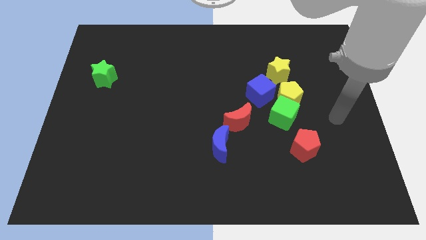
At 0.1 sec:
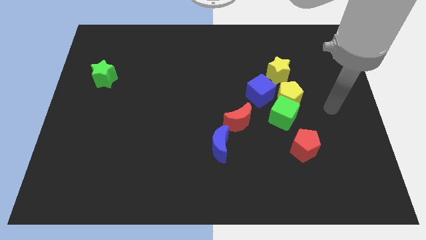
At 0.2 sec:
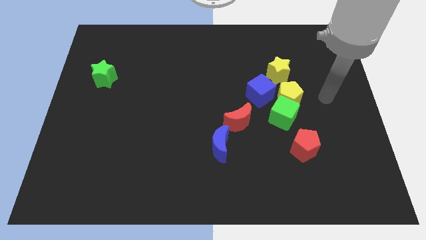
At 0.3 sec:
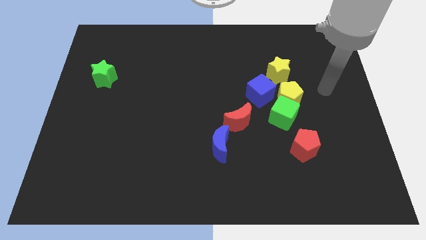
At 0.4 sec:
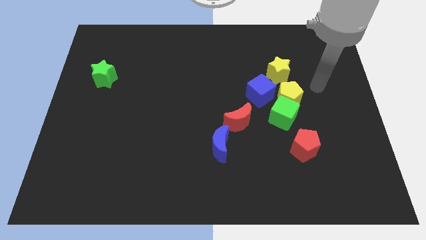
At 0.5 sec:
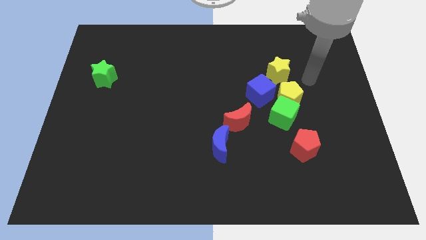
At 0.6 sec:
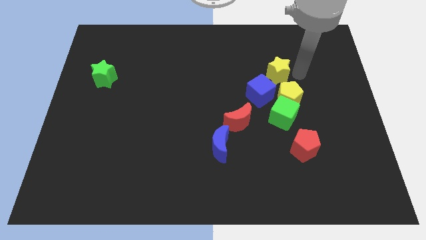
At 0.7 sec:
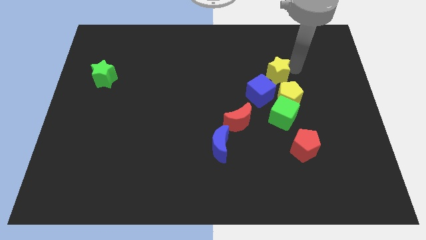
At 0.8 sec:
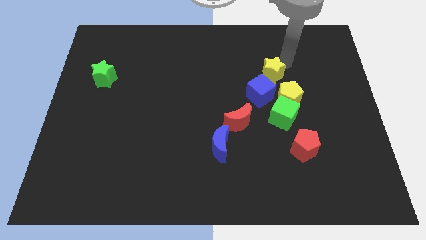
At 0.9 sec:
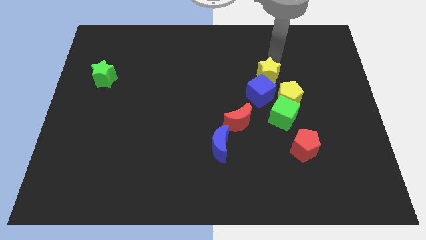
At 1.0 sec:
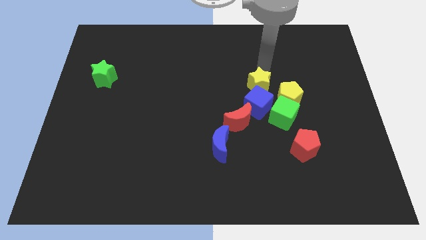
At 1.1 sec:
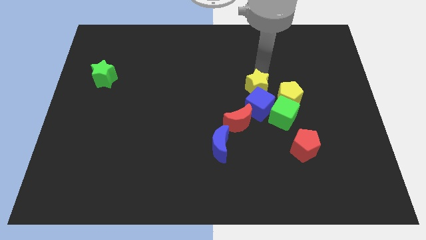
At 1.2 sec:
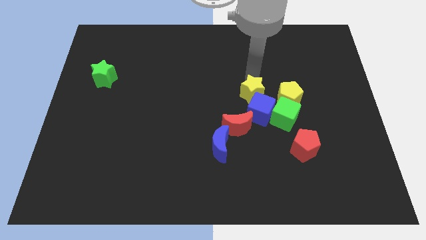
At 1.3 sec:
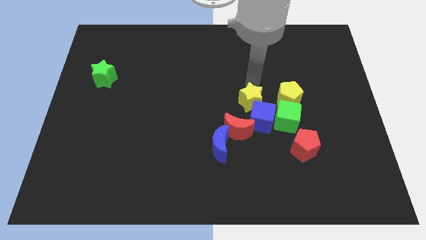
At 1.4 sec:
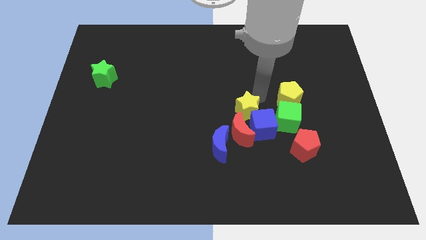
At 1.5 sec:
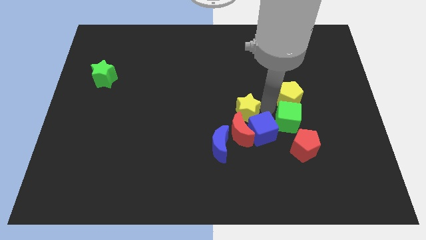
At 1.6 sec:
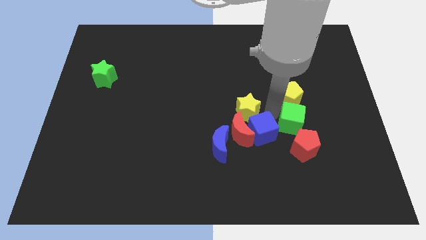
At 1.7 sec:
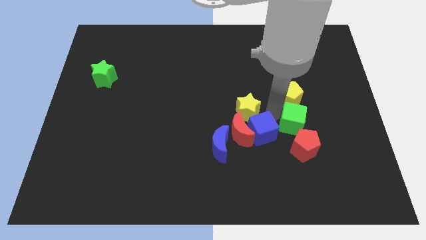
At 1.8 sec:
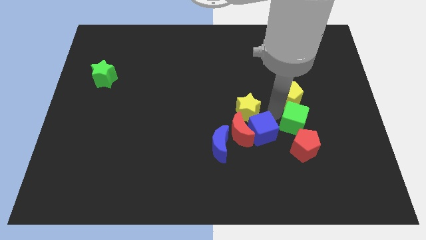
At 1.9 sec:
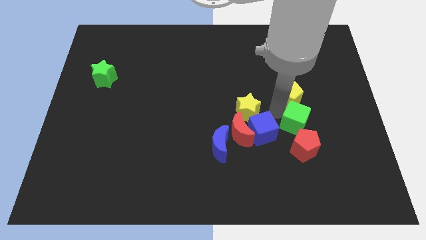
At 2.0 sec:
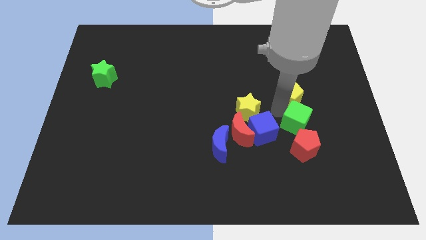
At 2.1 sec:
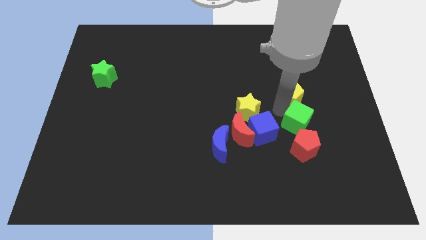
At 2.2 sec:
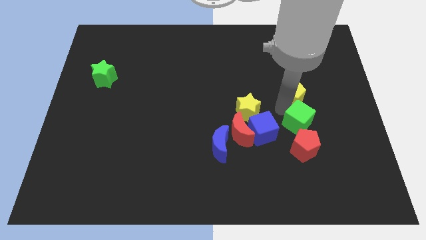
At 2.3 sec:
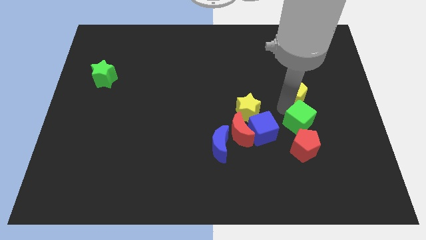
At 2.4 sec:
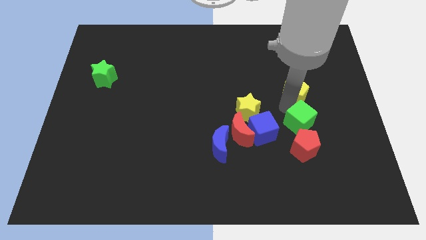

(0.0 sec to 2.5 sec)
pull the yellow pentagon apart from the green cube, blue cube, and yellow star

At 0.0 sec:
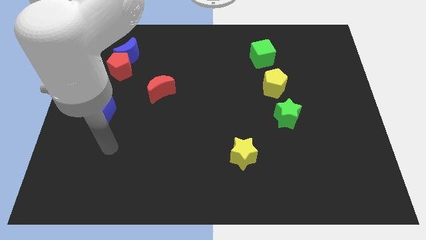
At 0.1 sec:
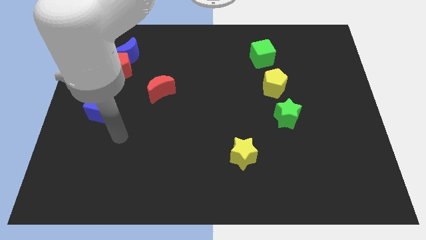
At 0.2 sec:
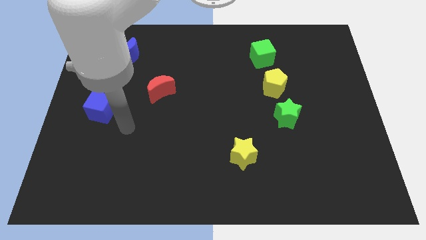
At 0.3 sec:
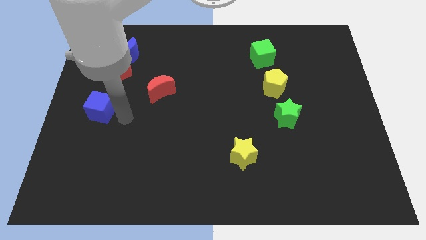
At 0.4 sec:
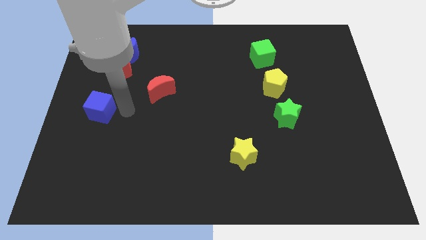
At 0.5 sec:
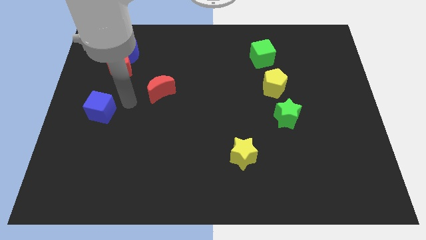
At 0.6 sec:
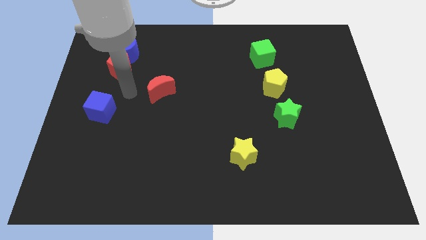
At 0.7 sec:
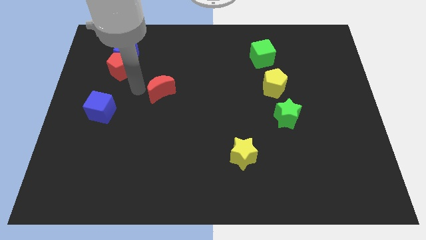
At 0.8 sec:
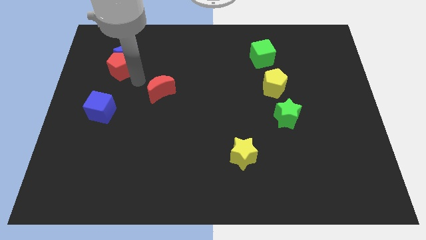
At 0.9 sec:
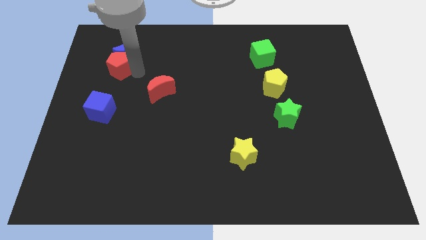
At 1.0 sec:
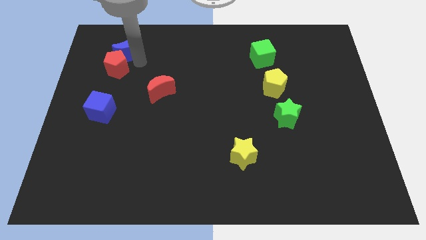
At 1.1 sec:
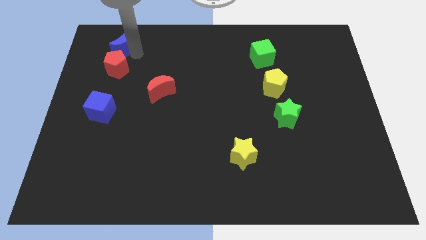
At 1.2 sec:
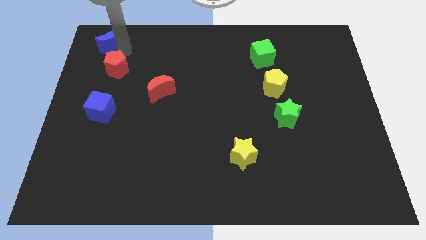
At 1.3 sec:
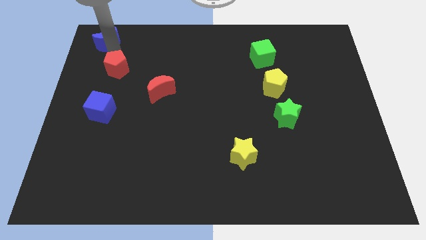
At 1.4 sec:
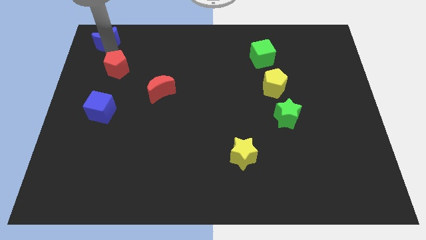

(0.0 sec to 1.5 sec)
move the red pentagon away from the blue moon

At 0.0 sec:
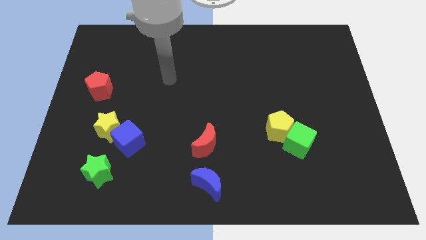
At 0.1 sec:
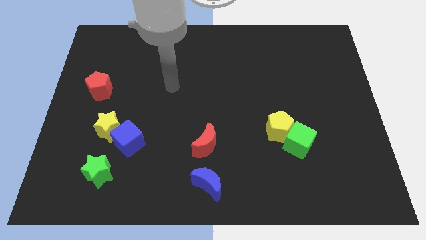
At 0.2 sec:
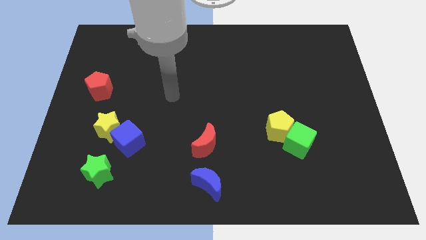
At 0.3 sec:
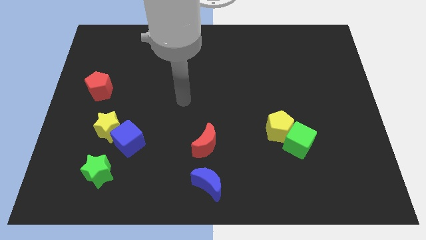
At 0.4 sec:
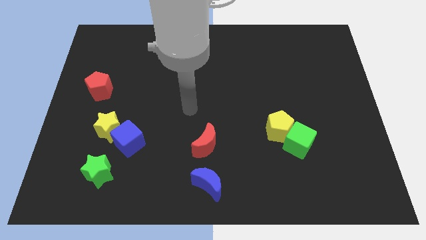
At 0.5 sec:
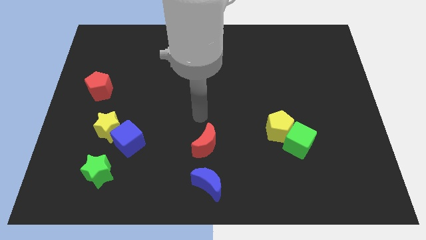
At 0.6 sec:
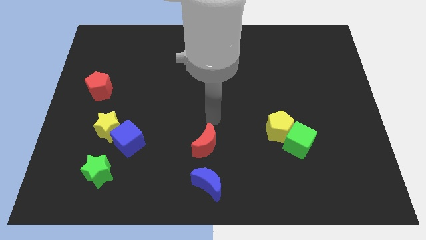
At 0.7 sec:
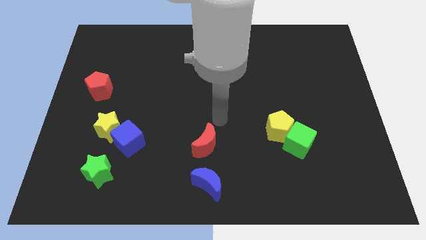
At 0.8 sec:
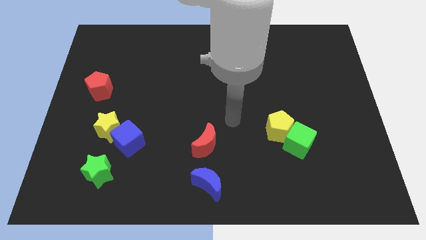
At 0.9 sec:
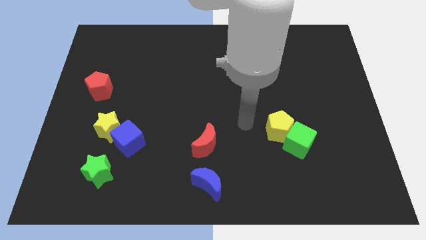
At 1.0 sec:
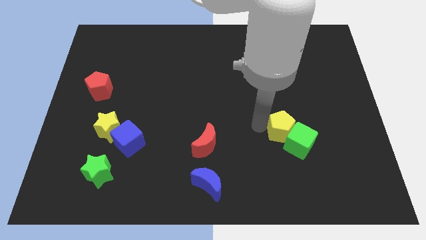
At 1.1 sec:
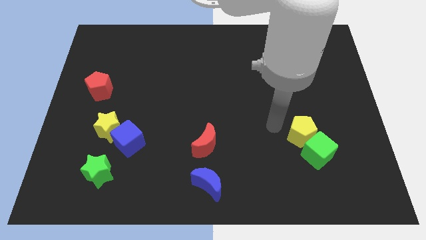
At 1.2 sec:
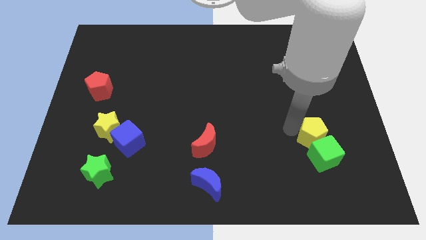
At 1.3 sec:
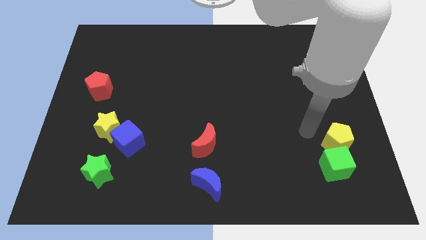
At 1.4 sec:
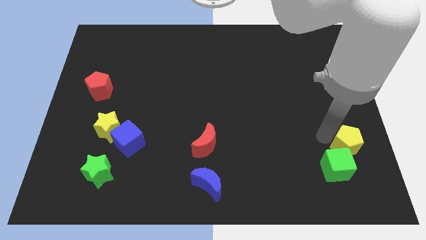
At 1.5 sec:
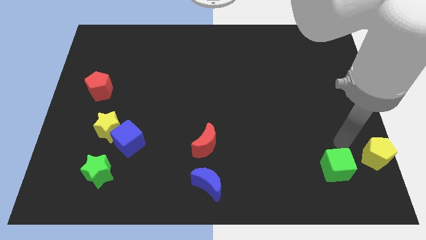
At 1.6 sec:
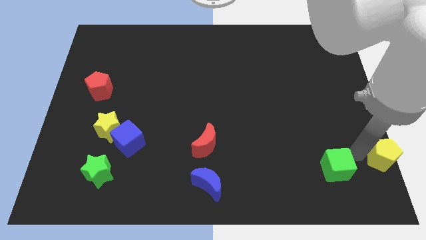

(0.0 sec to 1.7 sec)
pull the green cube apart from the yellow pentagon

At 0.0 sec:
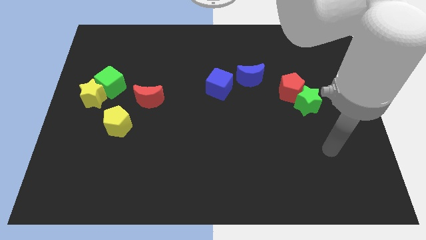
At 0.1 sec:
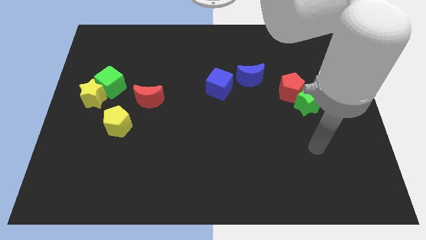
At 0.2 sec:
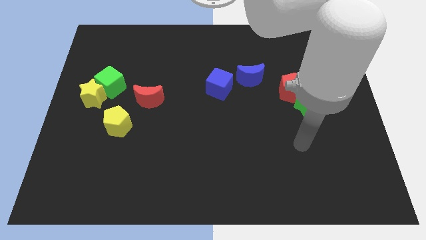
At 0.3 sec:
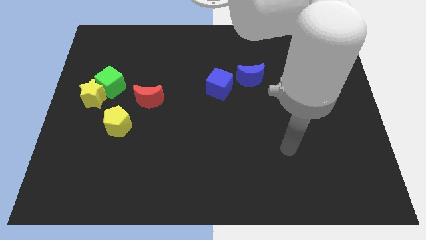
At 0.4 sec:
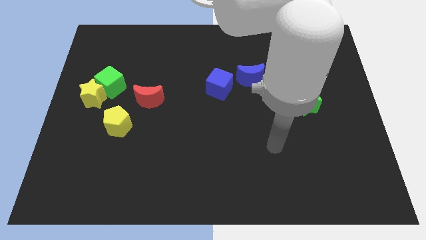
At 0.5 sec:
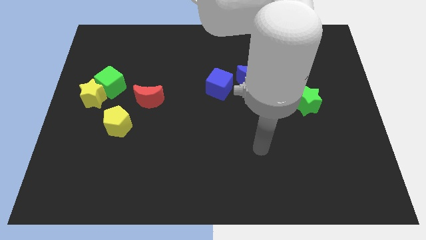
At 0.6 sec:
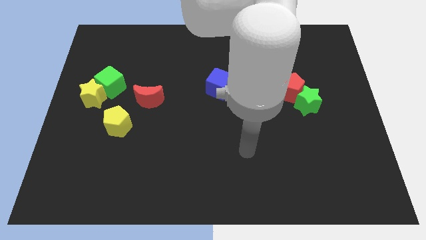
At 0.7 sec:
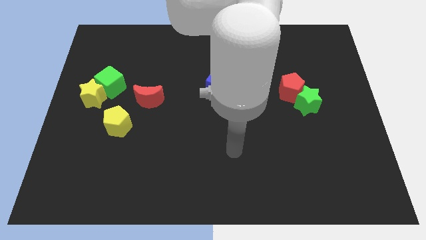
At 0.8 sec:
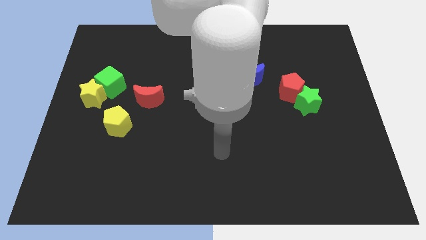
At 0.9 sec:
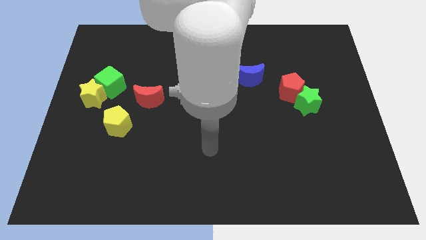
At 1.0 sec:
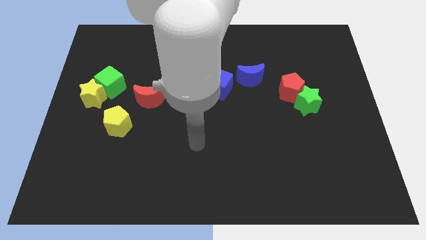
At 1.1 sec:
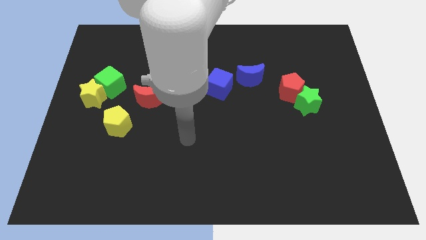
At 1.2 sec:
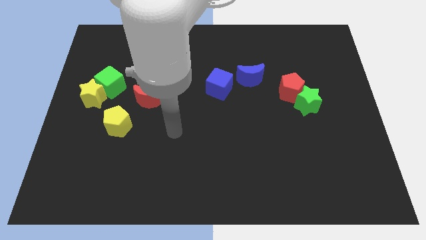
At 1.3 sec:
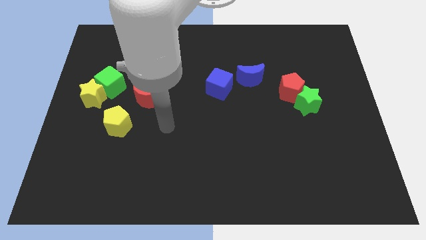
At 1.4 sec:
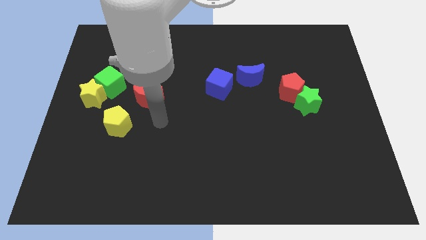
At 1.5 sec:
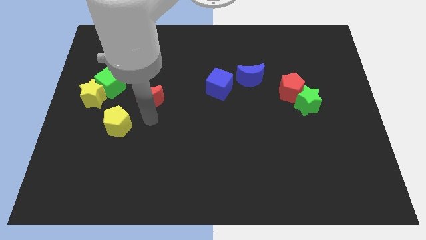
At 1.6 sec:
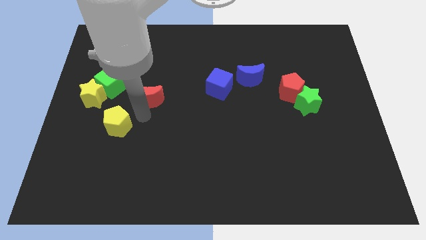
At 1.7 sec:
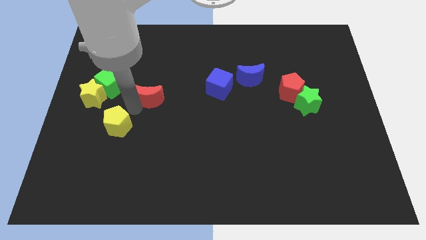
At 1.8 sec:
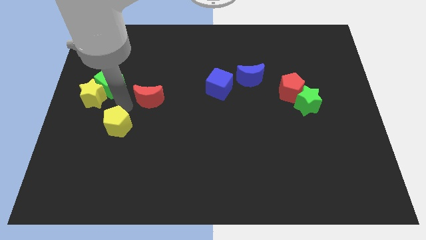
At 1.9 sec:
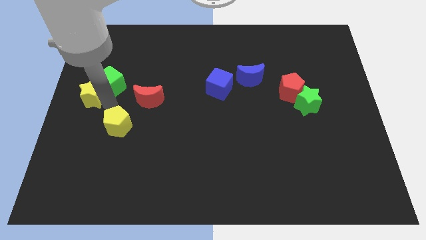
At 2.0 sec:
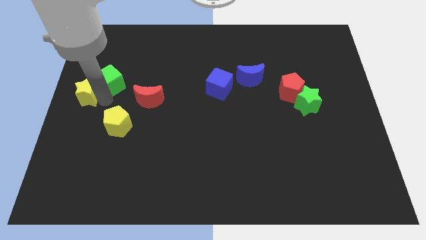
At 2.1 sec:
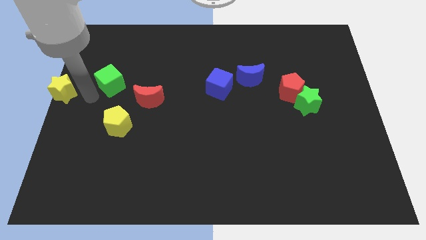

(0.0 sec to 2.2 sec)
separate the green cube from the yellow star

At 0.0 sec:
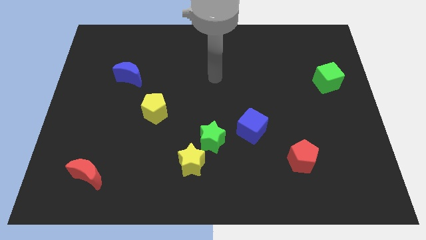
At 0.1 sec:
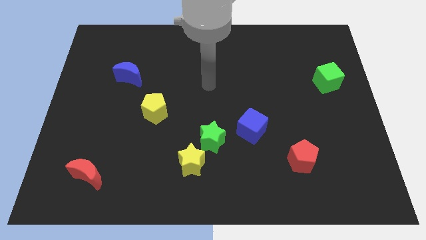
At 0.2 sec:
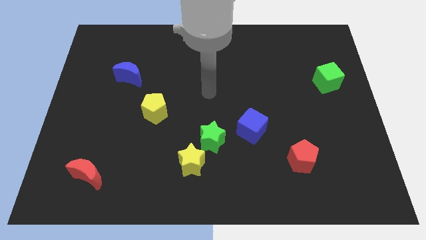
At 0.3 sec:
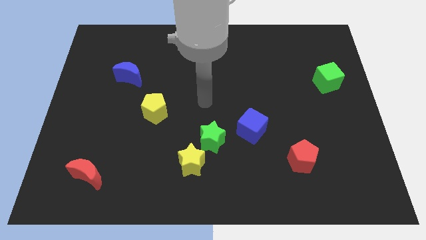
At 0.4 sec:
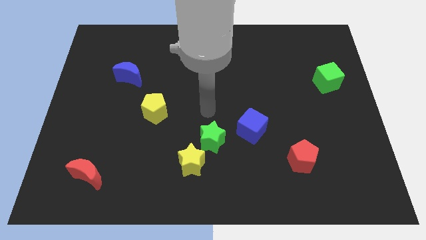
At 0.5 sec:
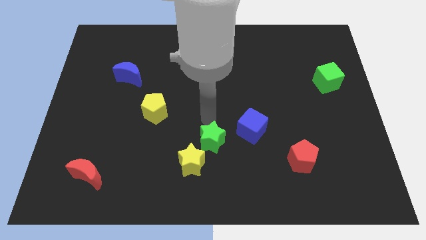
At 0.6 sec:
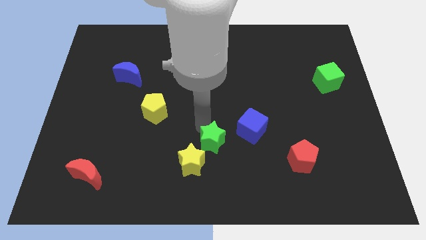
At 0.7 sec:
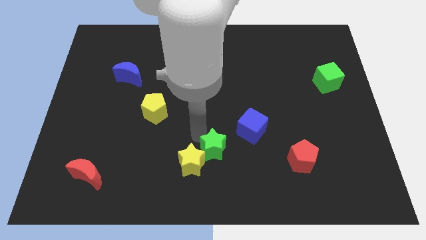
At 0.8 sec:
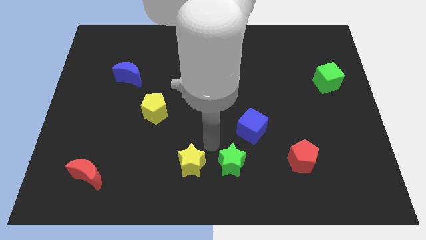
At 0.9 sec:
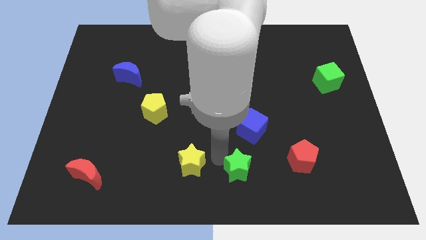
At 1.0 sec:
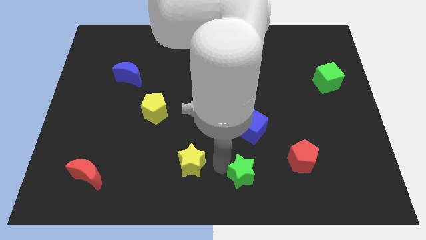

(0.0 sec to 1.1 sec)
move the yellow star away from the green star

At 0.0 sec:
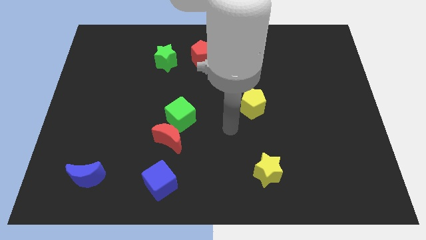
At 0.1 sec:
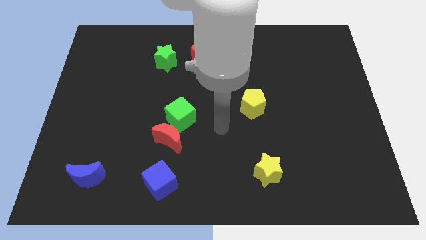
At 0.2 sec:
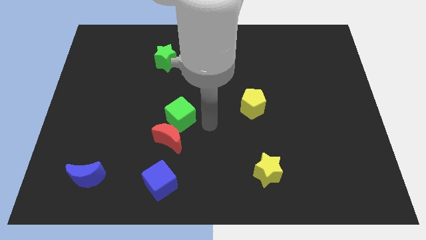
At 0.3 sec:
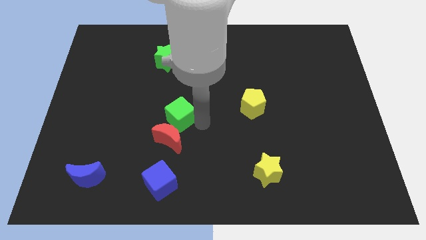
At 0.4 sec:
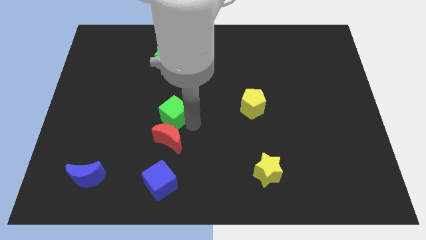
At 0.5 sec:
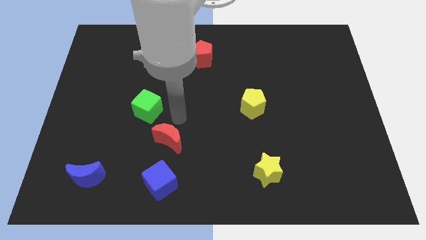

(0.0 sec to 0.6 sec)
move the red moon away from the green cube
